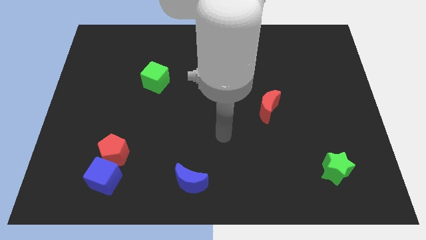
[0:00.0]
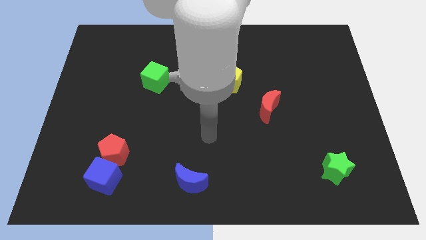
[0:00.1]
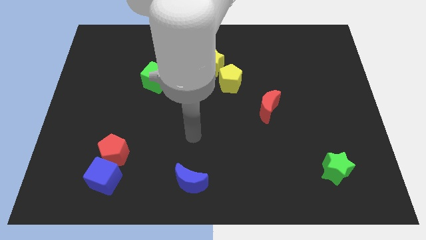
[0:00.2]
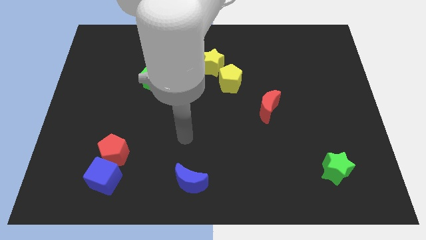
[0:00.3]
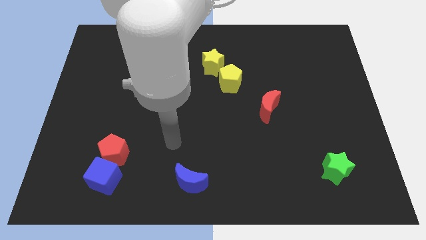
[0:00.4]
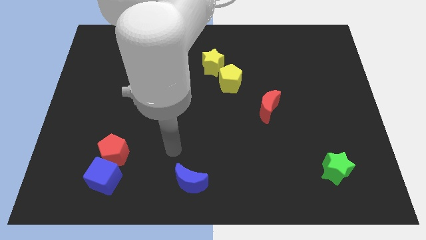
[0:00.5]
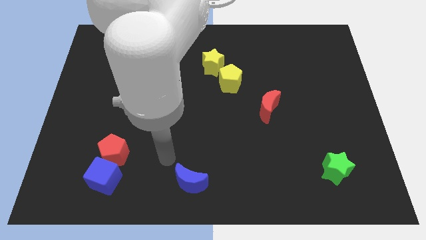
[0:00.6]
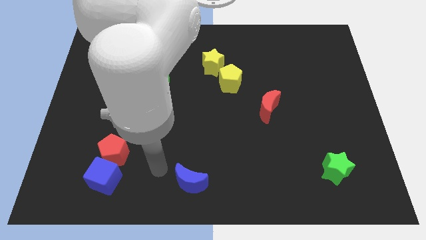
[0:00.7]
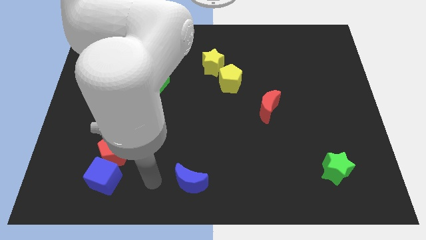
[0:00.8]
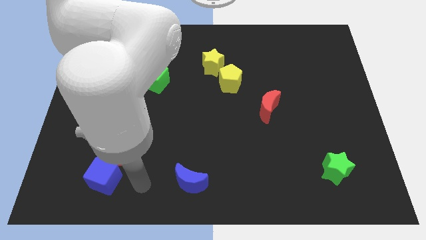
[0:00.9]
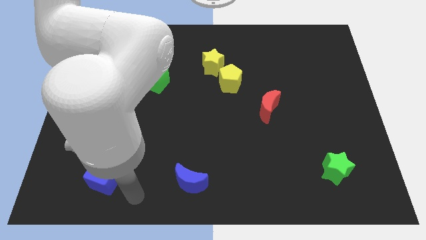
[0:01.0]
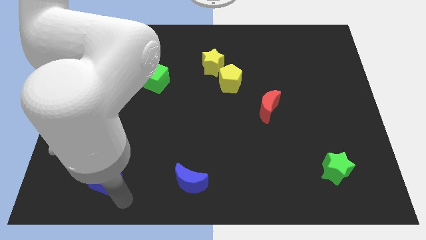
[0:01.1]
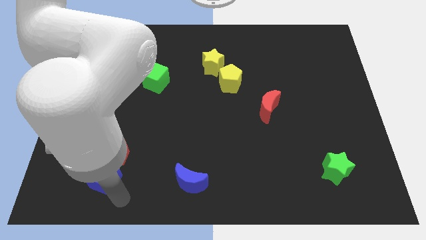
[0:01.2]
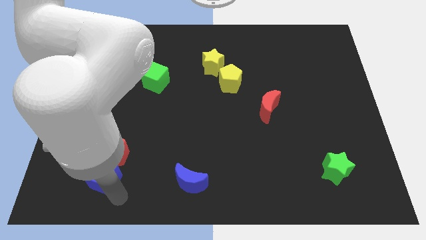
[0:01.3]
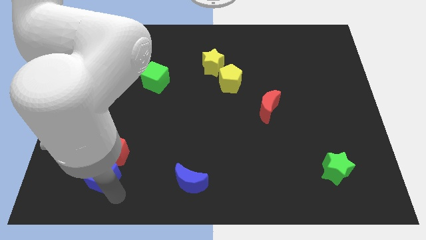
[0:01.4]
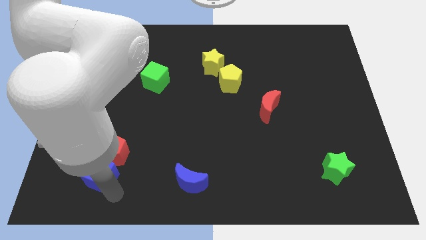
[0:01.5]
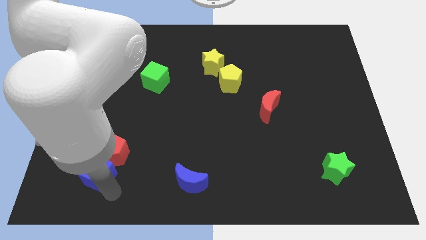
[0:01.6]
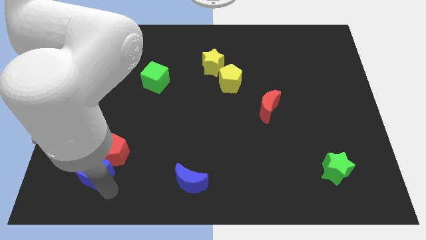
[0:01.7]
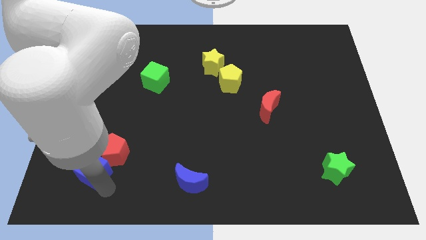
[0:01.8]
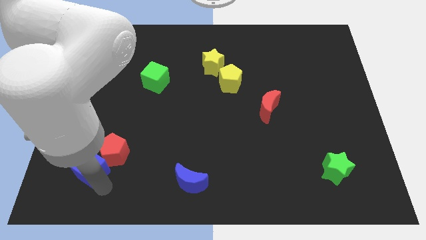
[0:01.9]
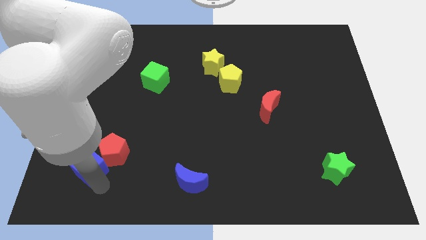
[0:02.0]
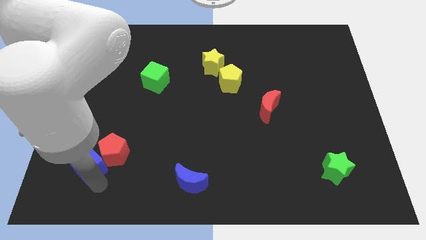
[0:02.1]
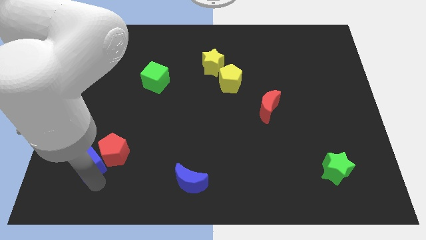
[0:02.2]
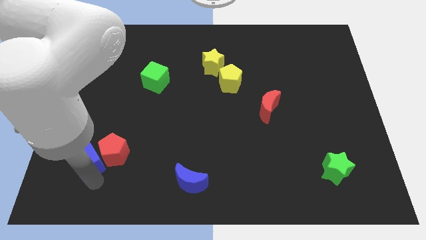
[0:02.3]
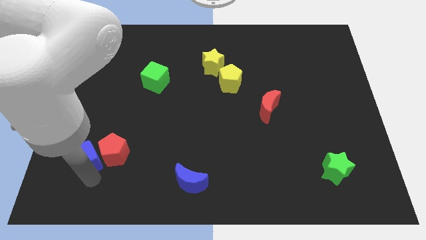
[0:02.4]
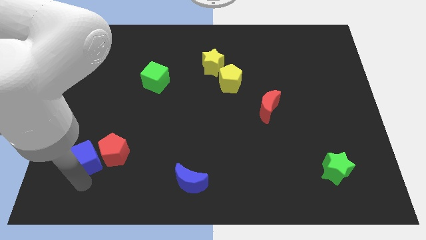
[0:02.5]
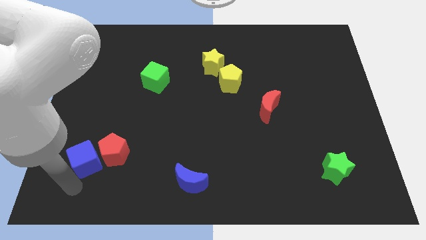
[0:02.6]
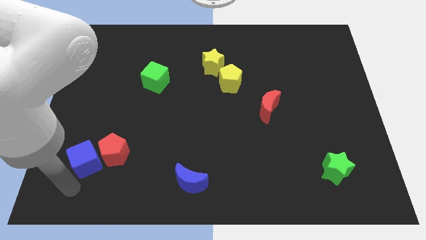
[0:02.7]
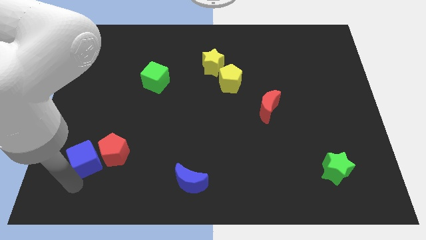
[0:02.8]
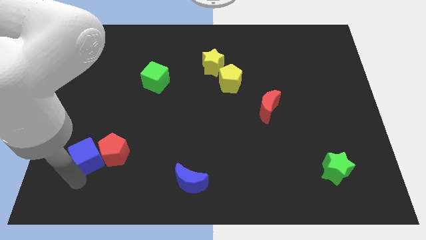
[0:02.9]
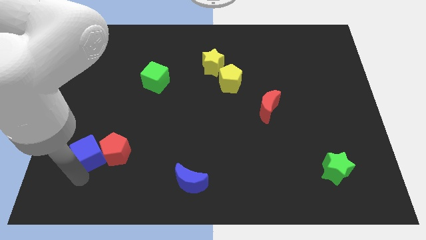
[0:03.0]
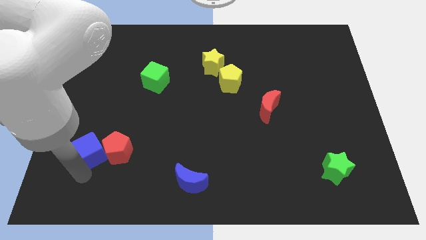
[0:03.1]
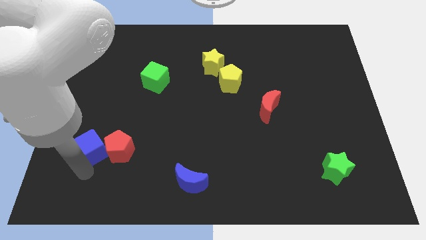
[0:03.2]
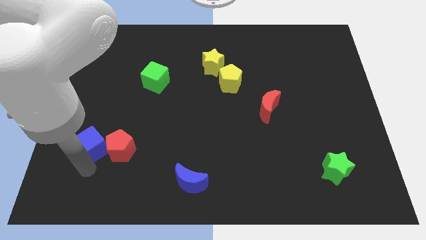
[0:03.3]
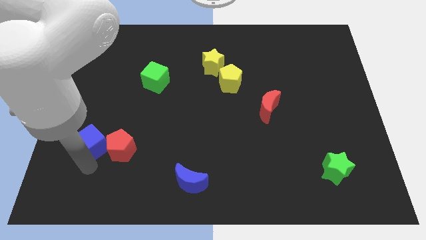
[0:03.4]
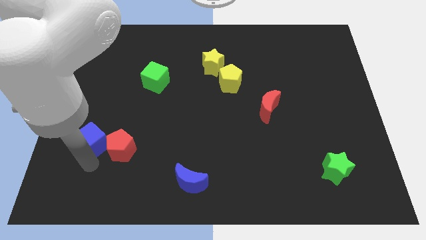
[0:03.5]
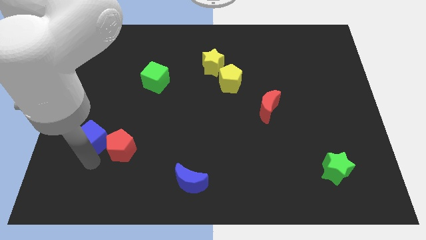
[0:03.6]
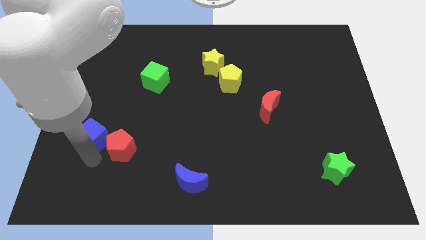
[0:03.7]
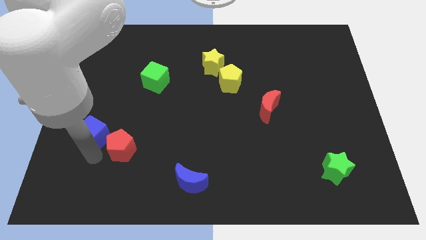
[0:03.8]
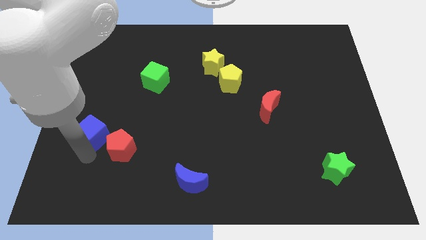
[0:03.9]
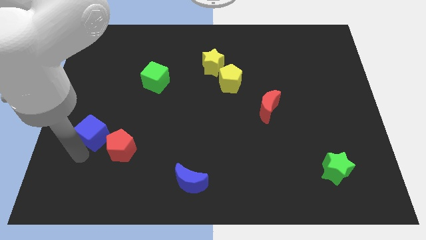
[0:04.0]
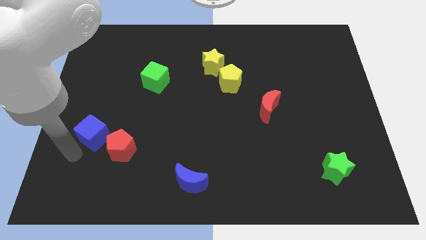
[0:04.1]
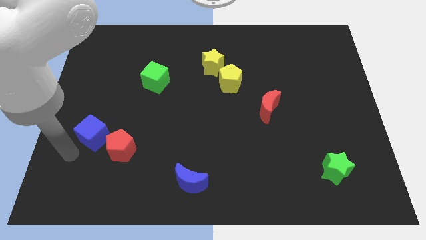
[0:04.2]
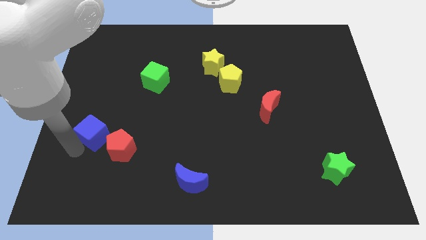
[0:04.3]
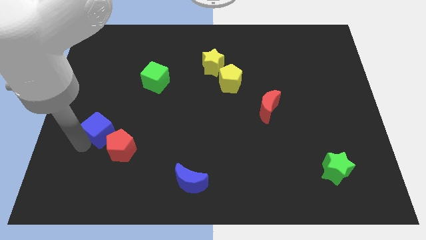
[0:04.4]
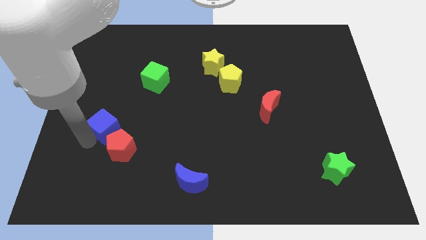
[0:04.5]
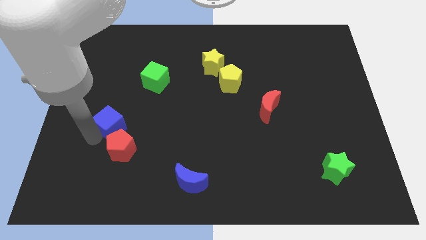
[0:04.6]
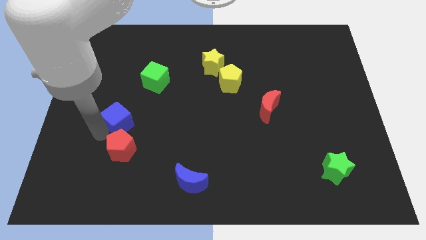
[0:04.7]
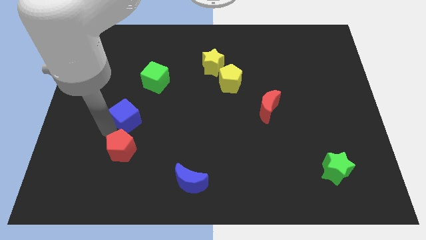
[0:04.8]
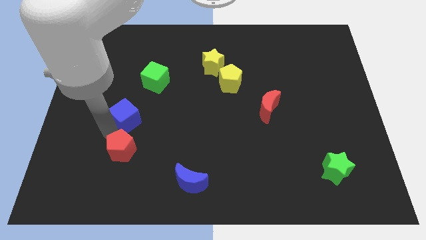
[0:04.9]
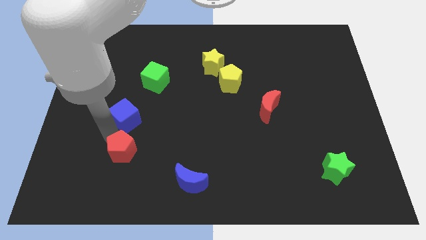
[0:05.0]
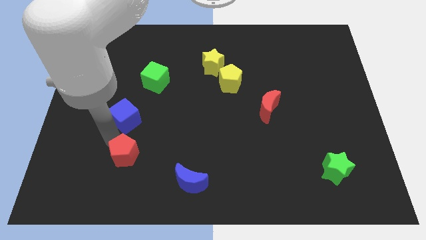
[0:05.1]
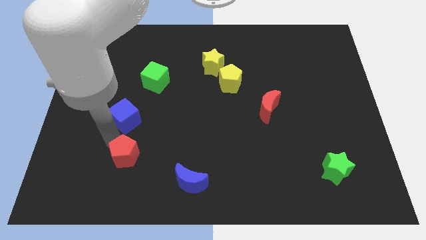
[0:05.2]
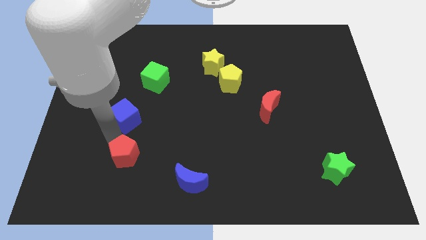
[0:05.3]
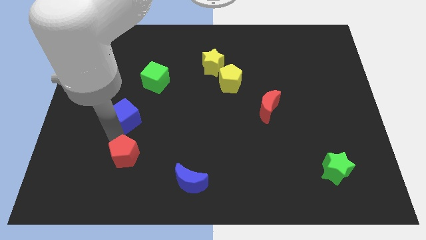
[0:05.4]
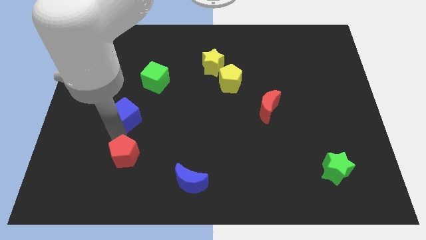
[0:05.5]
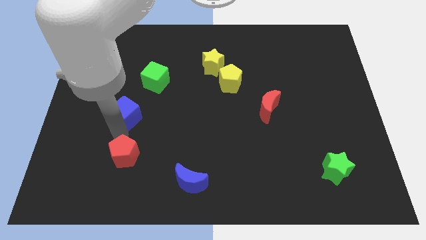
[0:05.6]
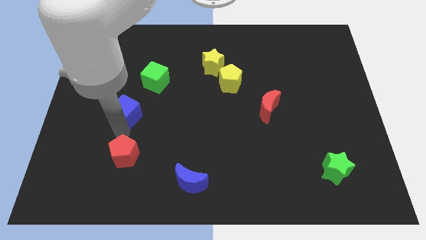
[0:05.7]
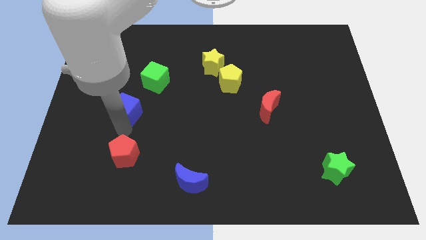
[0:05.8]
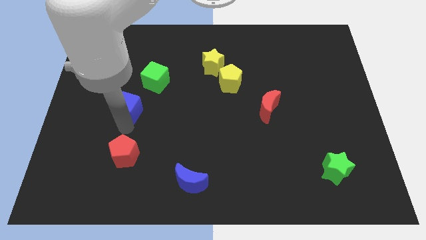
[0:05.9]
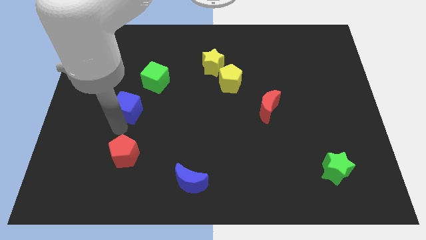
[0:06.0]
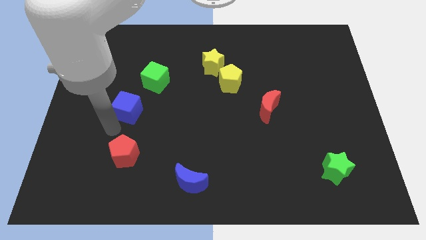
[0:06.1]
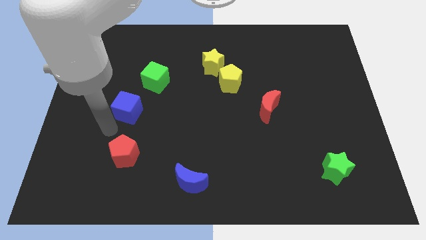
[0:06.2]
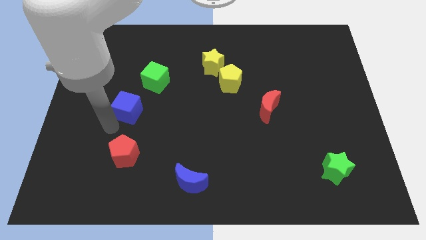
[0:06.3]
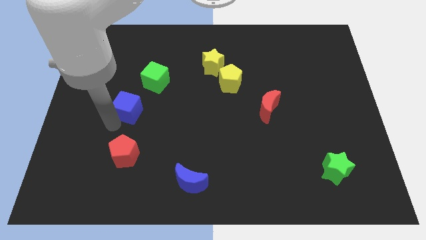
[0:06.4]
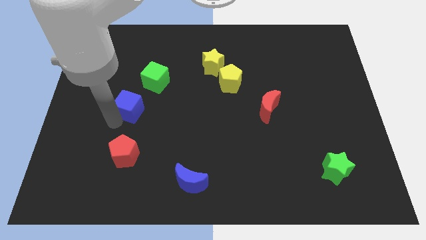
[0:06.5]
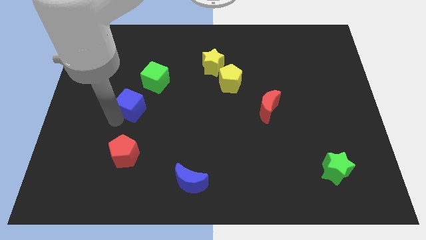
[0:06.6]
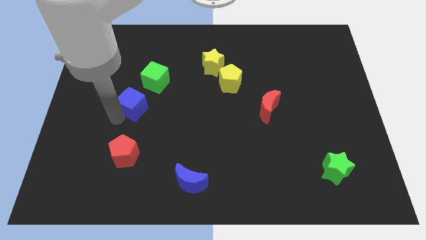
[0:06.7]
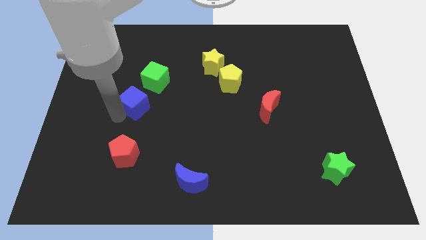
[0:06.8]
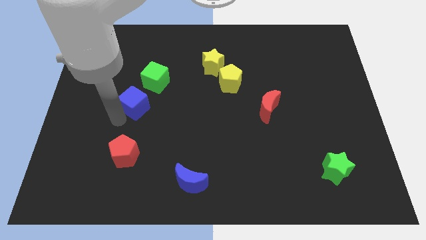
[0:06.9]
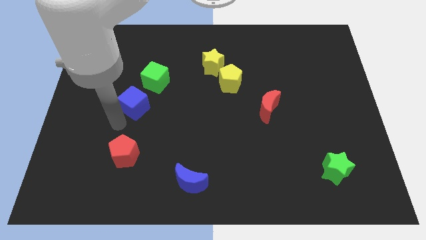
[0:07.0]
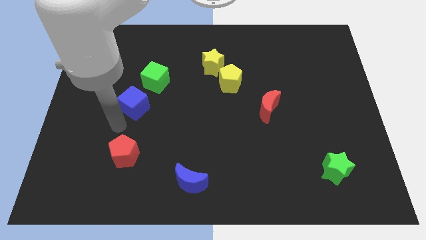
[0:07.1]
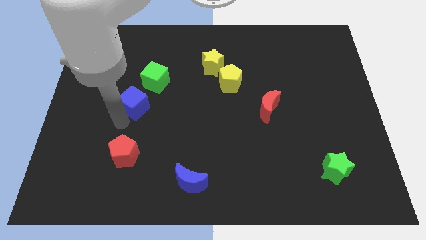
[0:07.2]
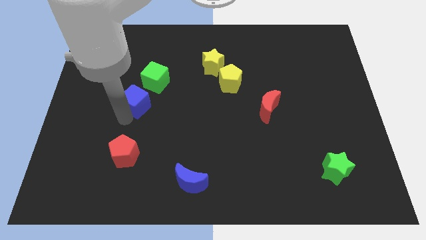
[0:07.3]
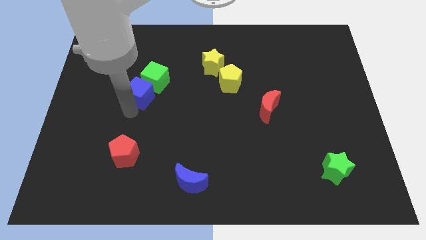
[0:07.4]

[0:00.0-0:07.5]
put the blue cube next to the green cube
